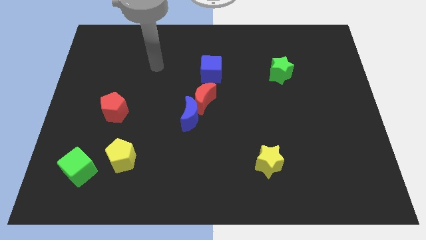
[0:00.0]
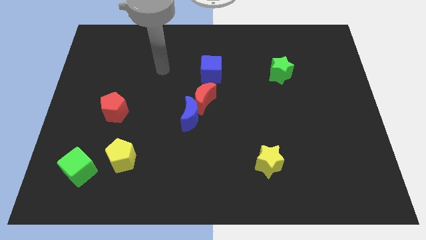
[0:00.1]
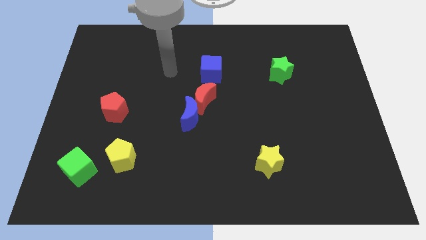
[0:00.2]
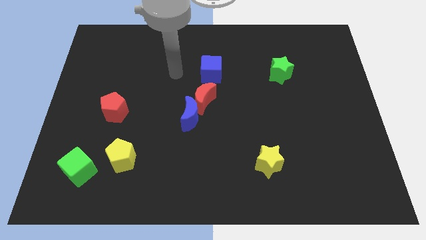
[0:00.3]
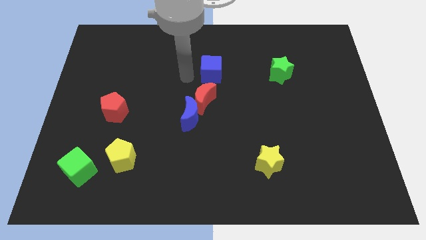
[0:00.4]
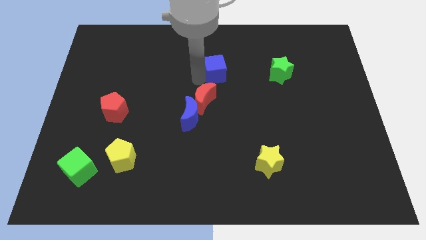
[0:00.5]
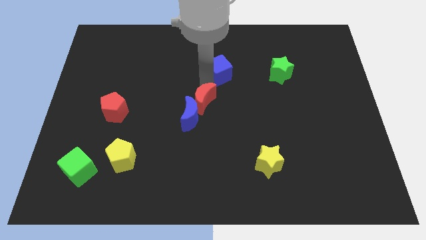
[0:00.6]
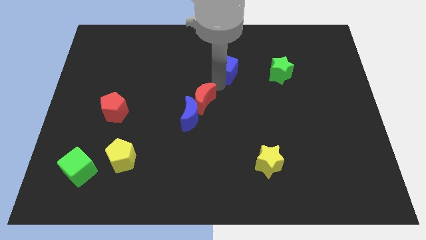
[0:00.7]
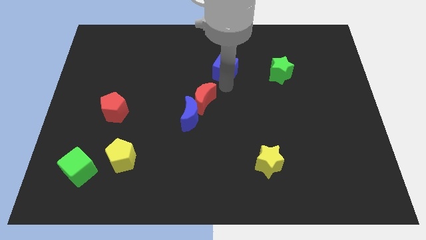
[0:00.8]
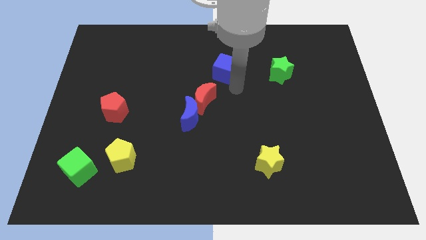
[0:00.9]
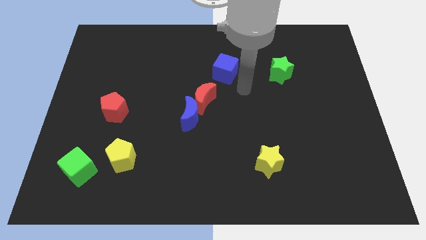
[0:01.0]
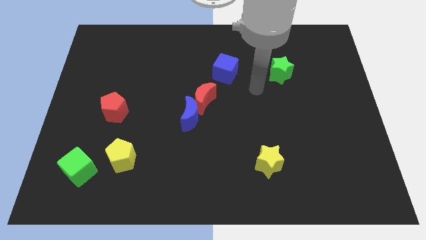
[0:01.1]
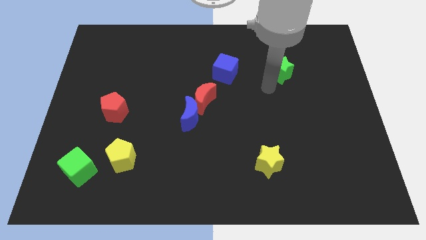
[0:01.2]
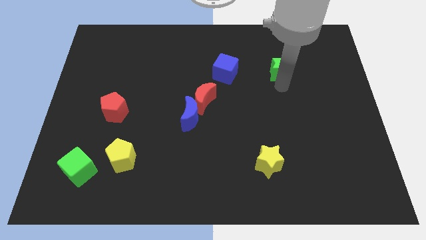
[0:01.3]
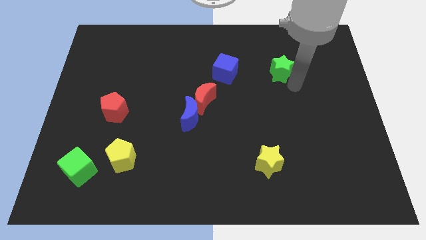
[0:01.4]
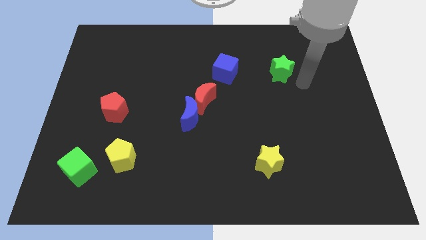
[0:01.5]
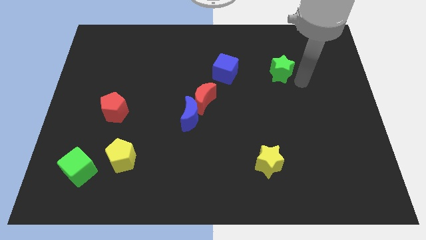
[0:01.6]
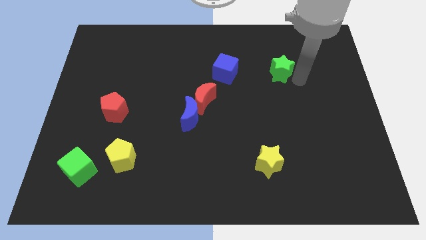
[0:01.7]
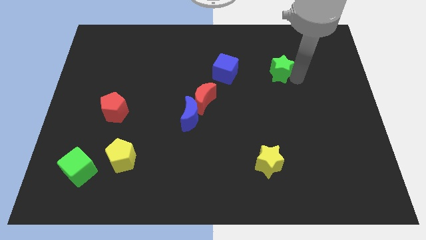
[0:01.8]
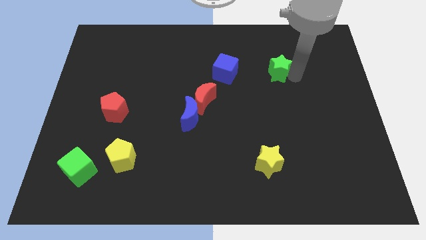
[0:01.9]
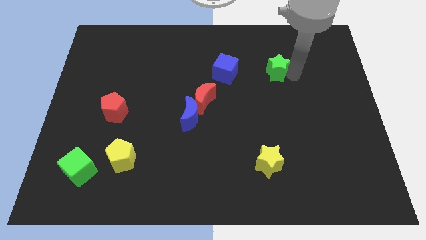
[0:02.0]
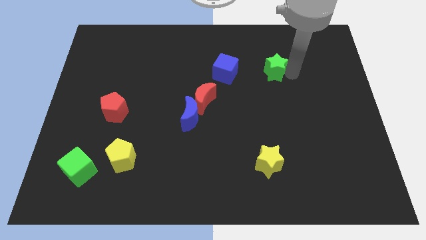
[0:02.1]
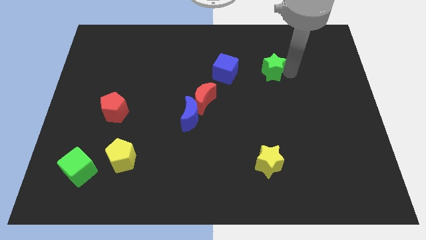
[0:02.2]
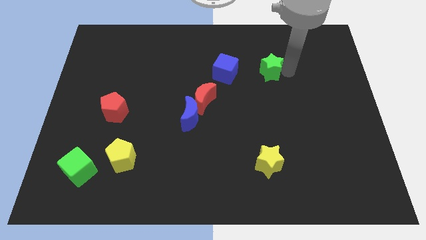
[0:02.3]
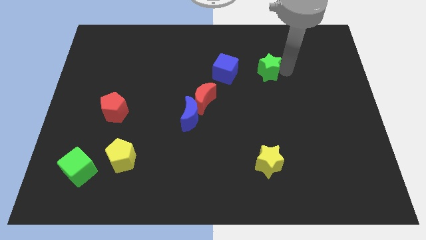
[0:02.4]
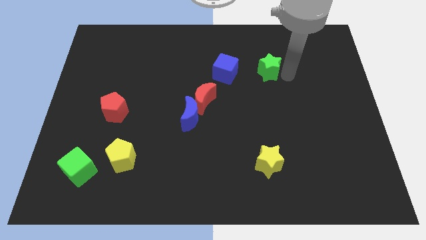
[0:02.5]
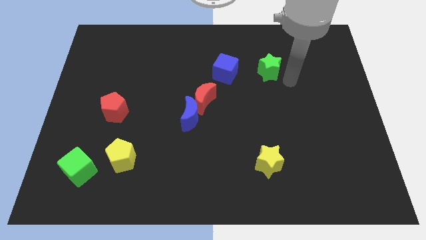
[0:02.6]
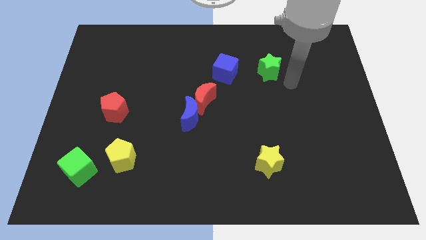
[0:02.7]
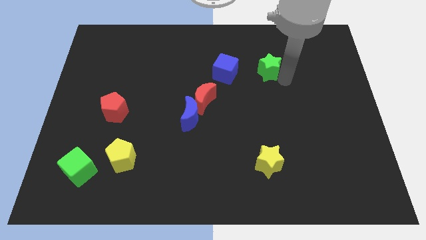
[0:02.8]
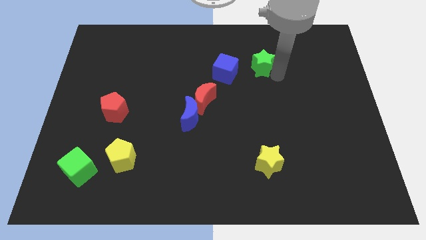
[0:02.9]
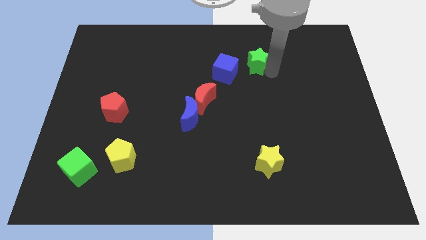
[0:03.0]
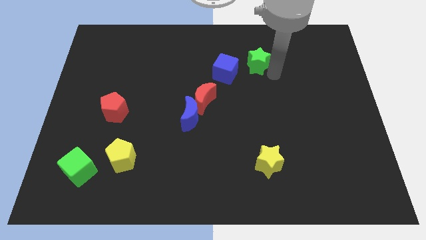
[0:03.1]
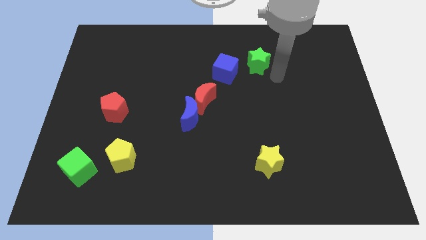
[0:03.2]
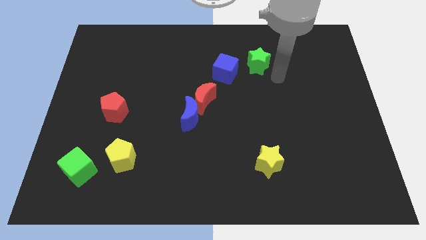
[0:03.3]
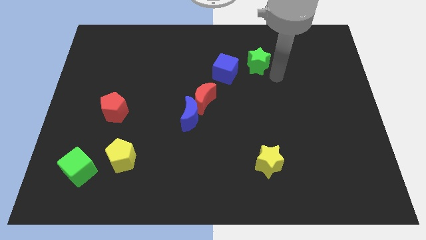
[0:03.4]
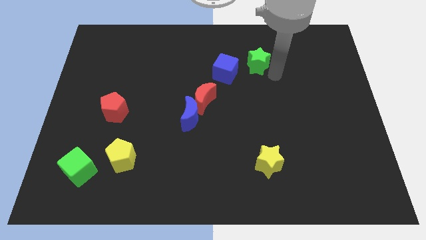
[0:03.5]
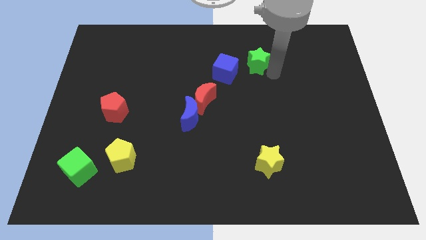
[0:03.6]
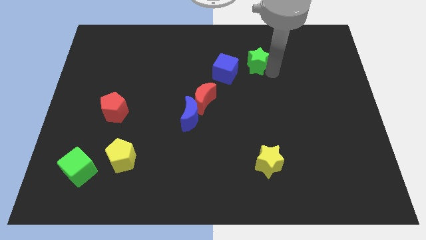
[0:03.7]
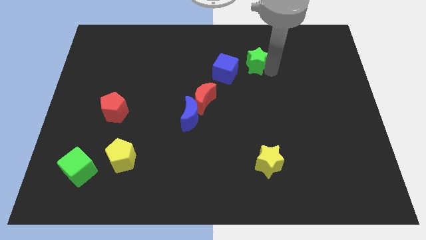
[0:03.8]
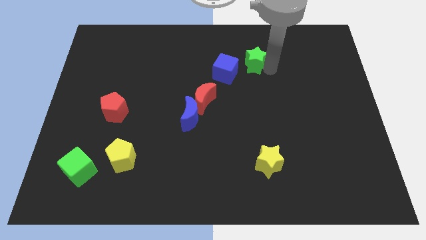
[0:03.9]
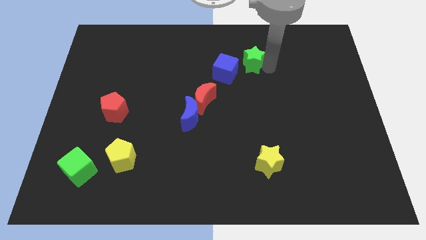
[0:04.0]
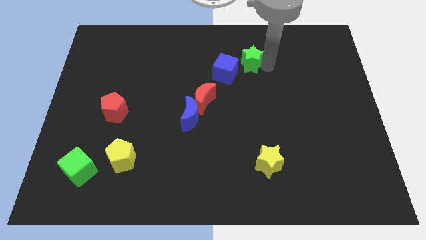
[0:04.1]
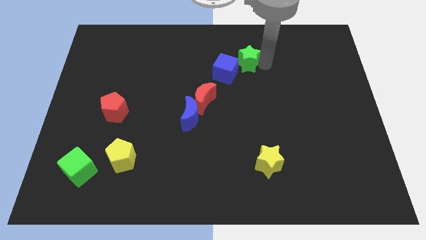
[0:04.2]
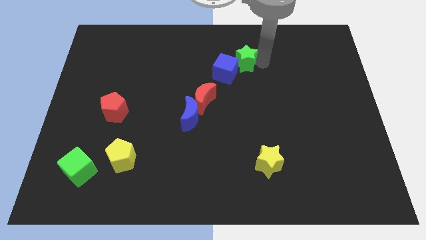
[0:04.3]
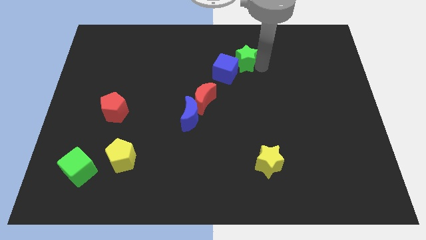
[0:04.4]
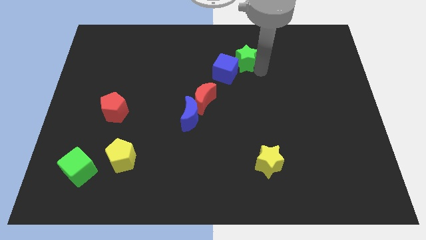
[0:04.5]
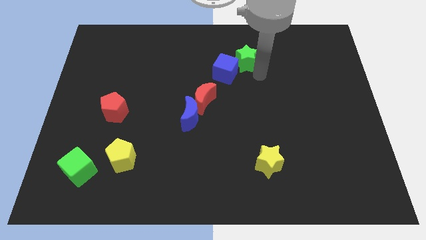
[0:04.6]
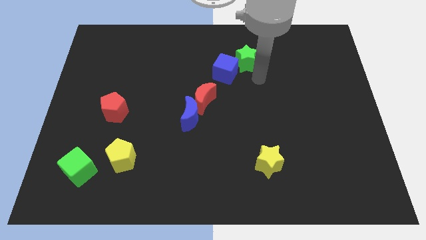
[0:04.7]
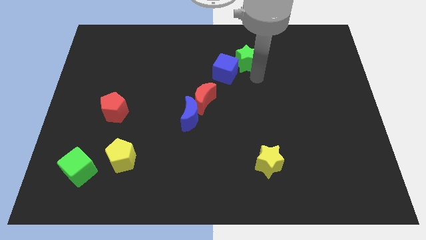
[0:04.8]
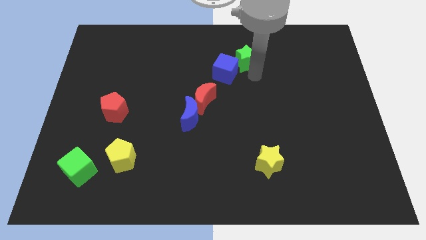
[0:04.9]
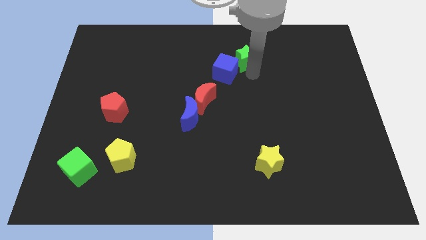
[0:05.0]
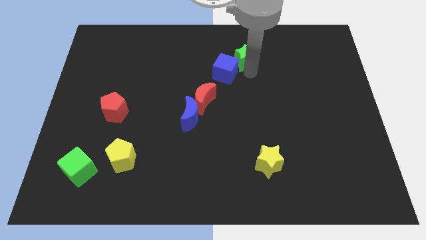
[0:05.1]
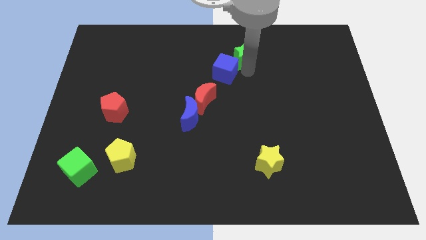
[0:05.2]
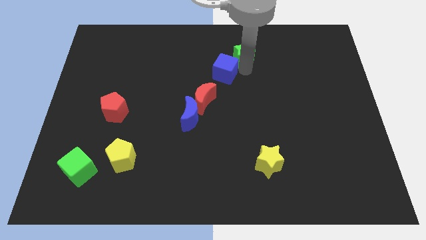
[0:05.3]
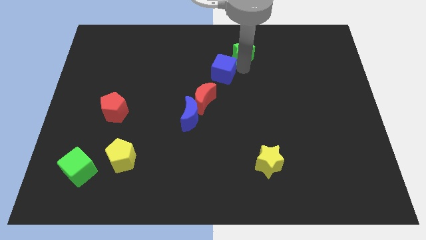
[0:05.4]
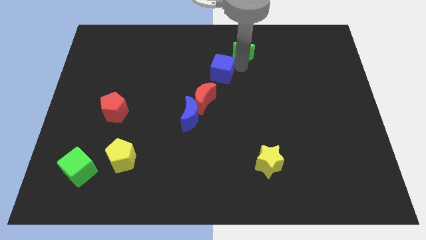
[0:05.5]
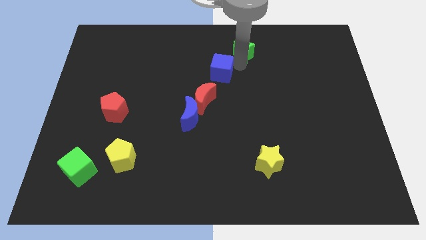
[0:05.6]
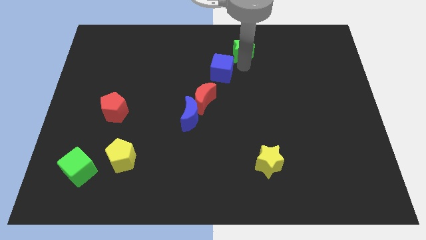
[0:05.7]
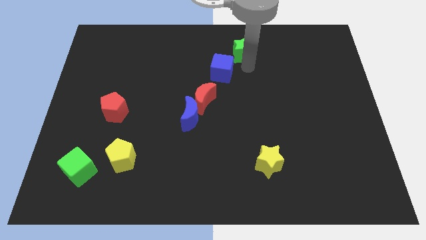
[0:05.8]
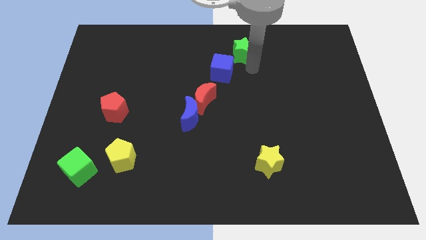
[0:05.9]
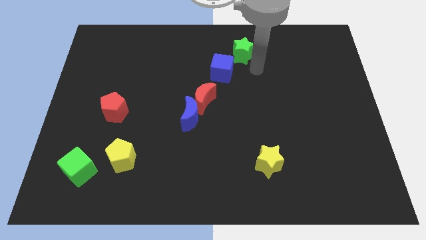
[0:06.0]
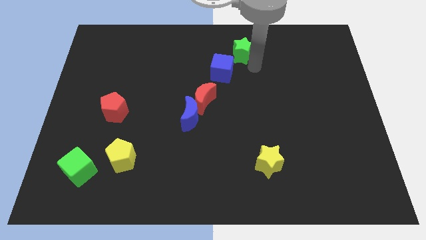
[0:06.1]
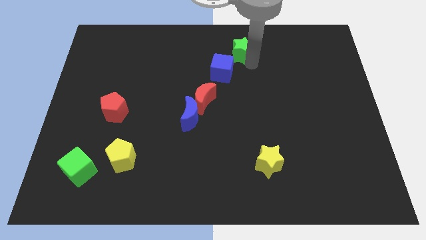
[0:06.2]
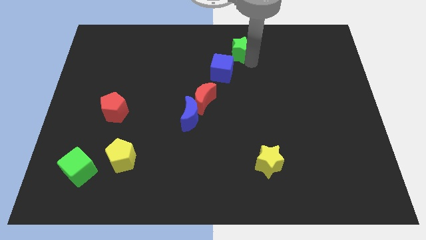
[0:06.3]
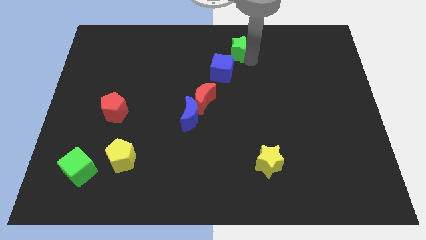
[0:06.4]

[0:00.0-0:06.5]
slide the green star to the top side
